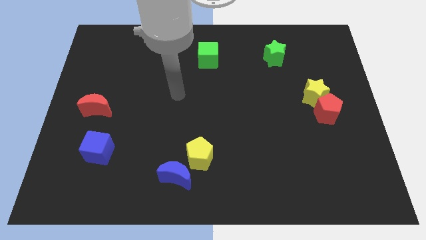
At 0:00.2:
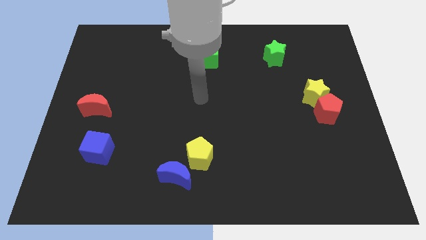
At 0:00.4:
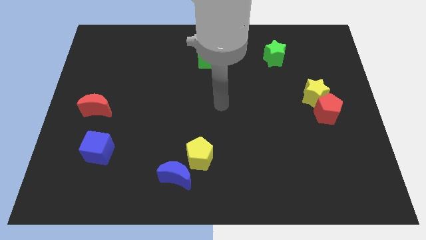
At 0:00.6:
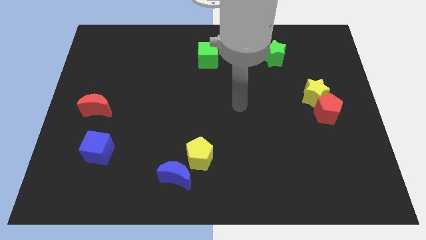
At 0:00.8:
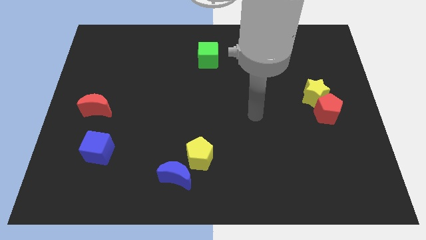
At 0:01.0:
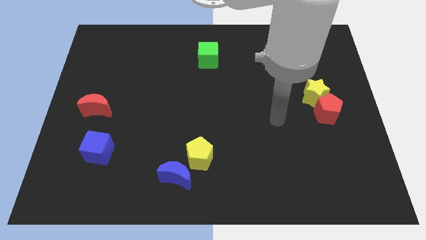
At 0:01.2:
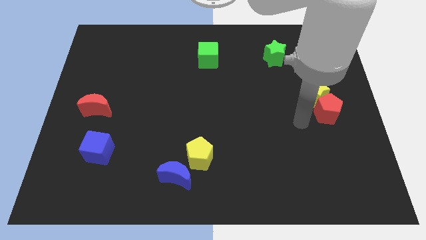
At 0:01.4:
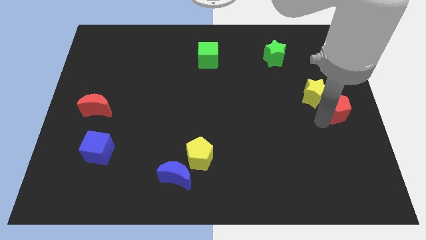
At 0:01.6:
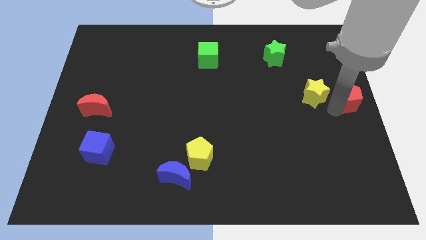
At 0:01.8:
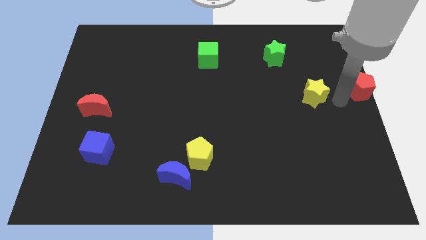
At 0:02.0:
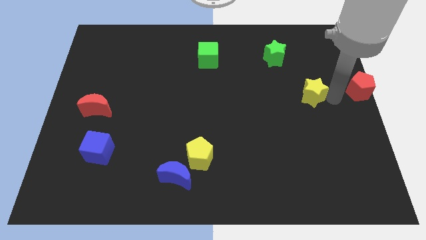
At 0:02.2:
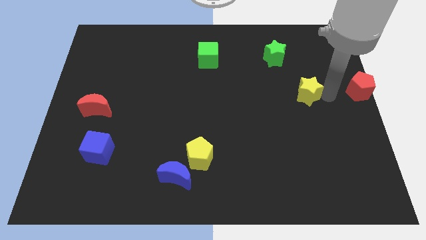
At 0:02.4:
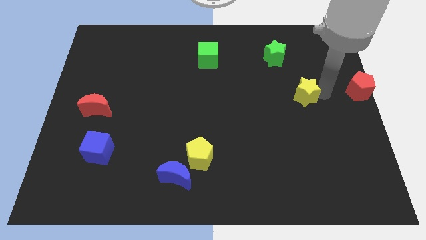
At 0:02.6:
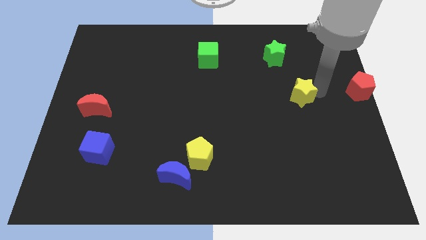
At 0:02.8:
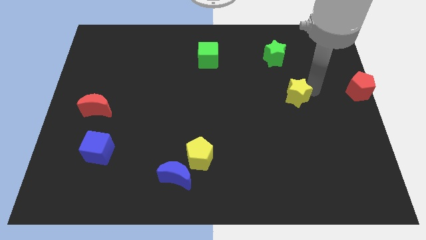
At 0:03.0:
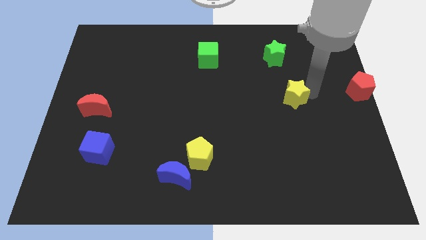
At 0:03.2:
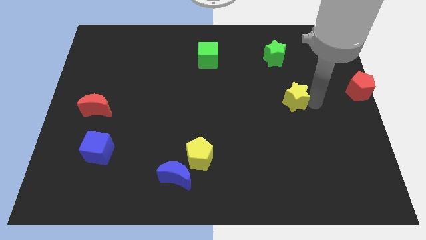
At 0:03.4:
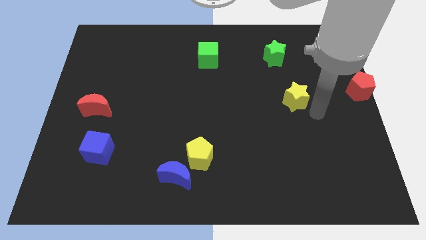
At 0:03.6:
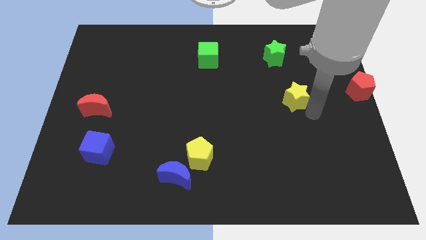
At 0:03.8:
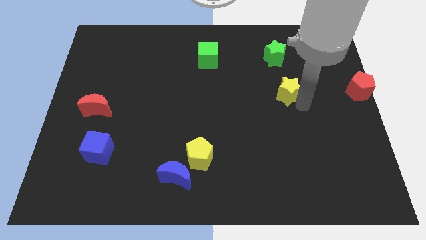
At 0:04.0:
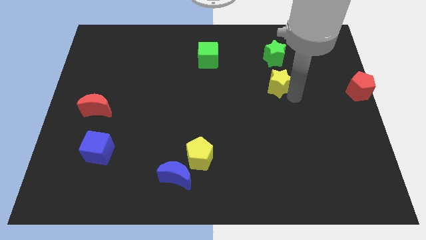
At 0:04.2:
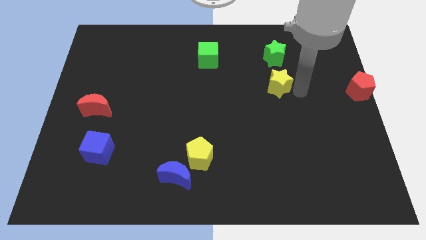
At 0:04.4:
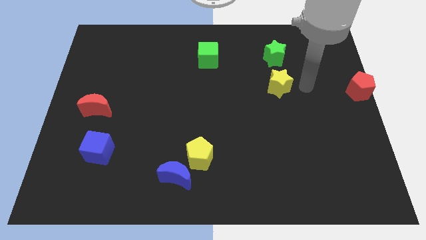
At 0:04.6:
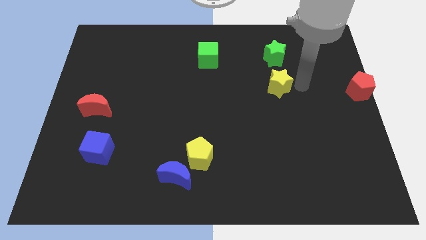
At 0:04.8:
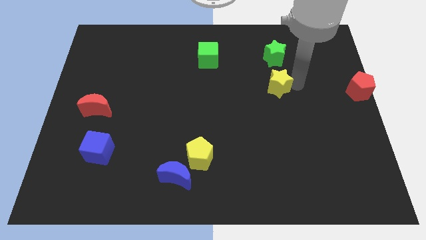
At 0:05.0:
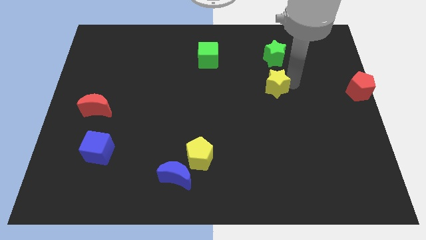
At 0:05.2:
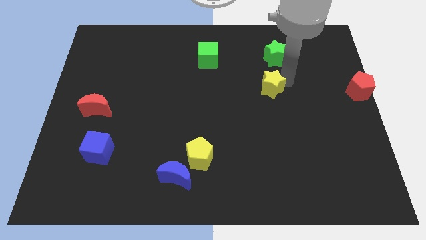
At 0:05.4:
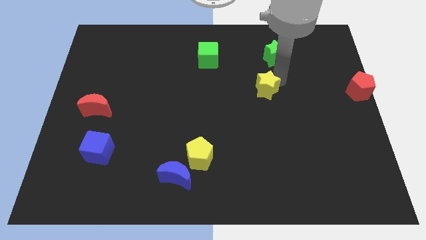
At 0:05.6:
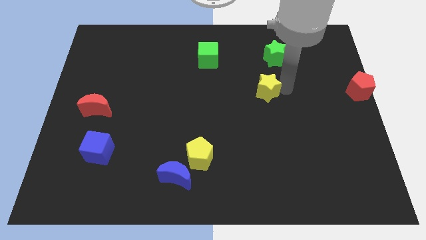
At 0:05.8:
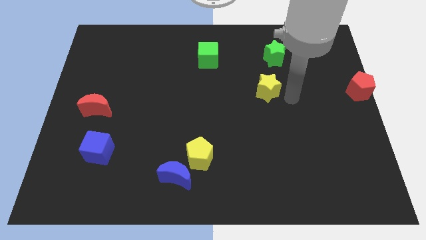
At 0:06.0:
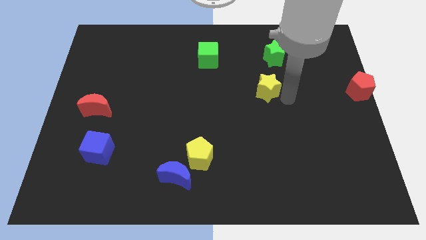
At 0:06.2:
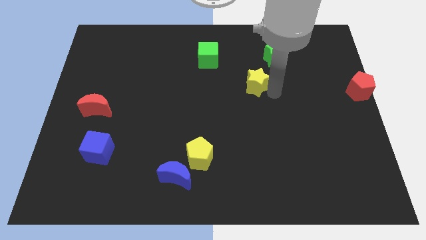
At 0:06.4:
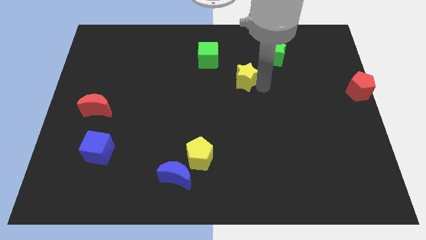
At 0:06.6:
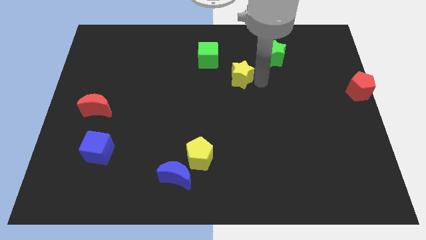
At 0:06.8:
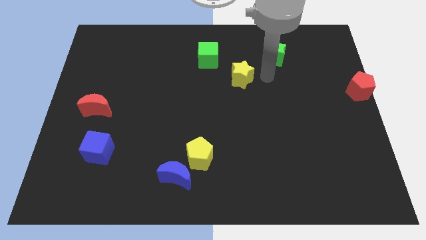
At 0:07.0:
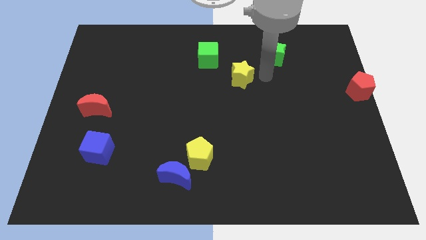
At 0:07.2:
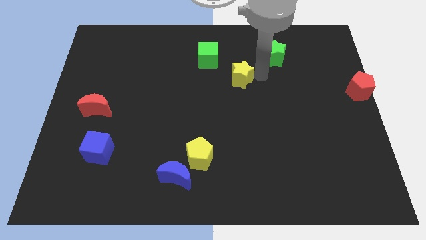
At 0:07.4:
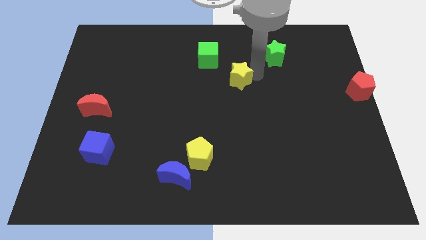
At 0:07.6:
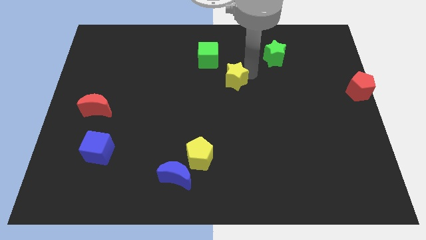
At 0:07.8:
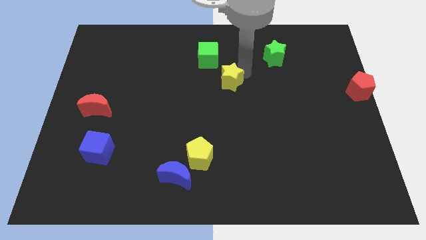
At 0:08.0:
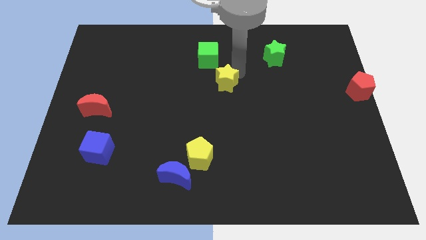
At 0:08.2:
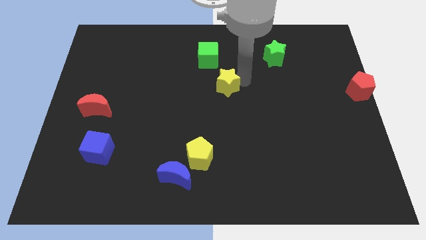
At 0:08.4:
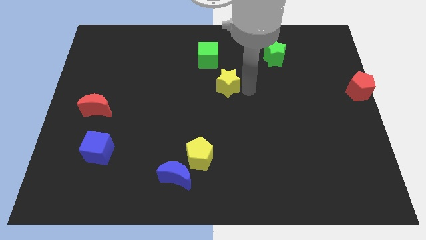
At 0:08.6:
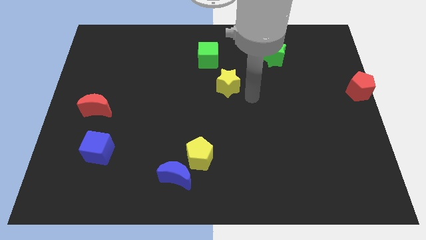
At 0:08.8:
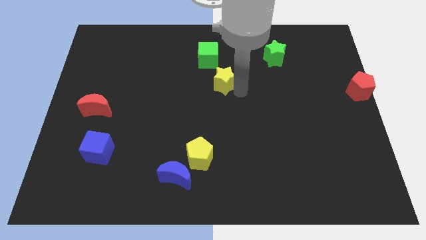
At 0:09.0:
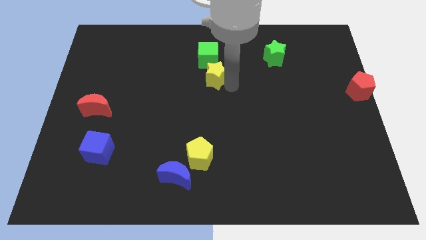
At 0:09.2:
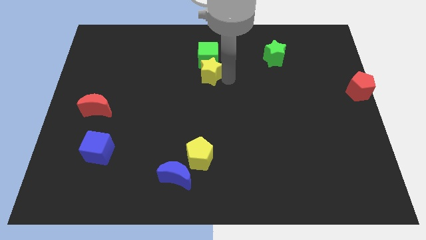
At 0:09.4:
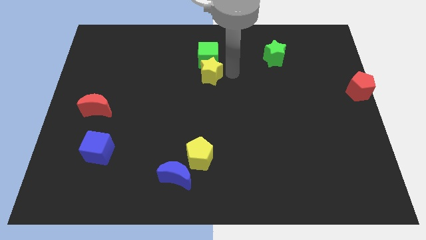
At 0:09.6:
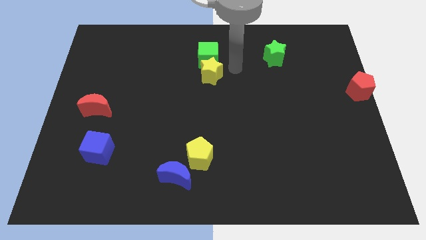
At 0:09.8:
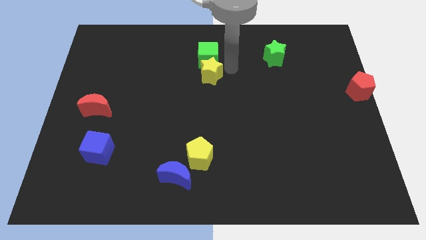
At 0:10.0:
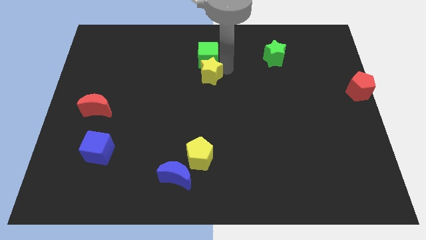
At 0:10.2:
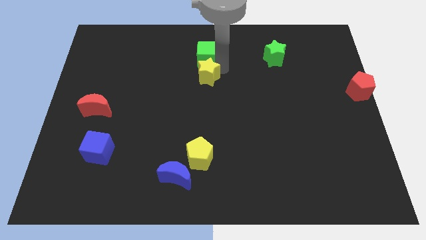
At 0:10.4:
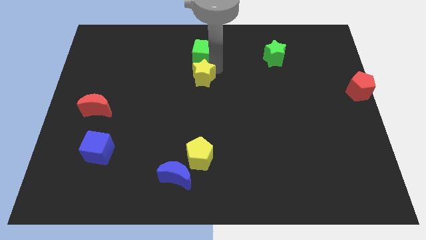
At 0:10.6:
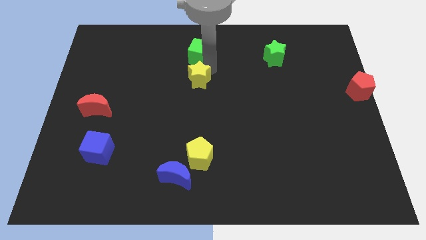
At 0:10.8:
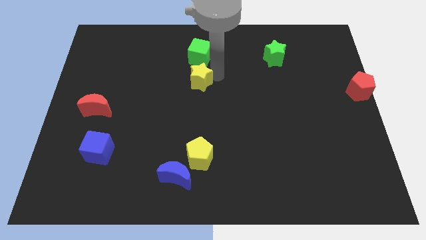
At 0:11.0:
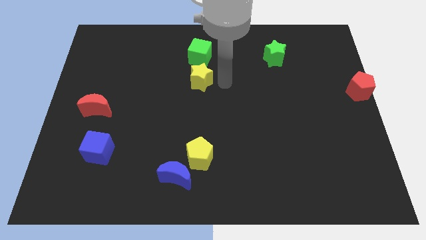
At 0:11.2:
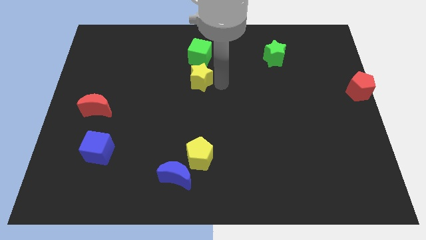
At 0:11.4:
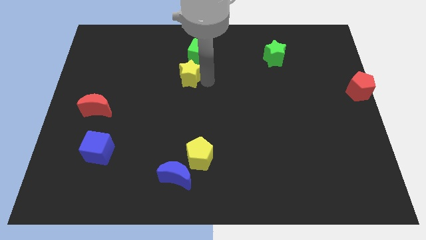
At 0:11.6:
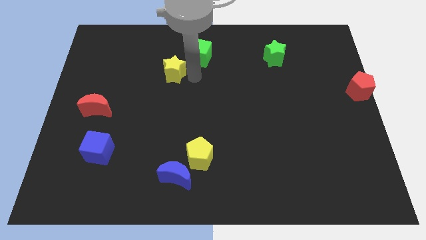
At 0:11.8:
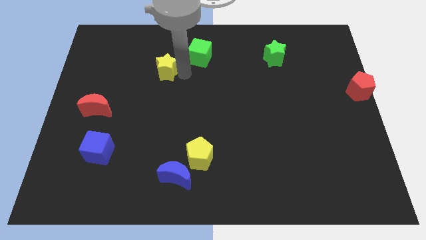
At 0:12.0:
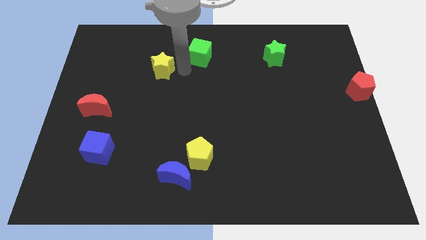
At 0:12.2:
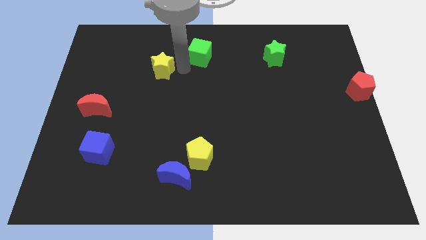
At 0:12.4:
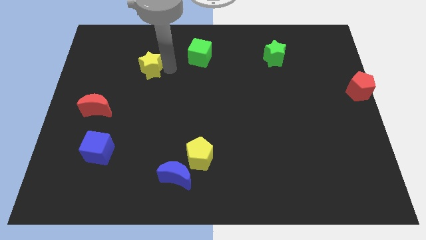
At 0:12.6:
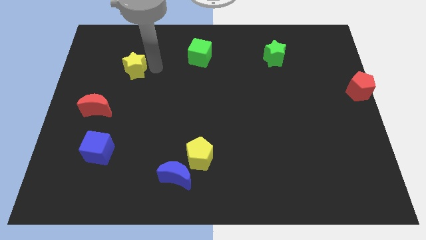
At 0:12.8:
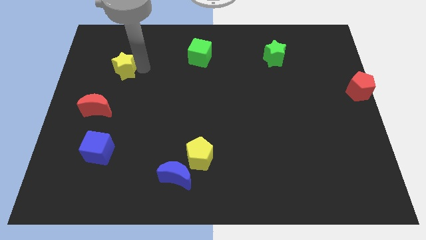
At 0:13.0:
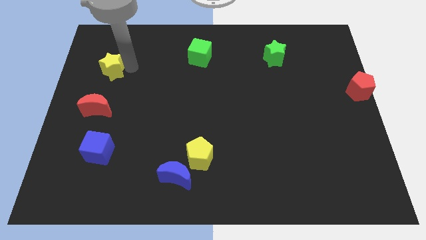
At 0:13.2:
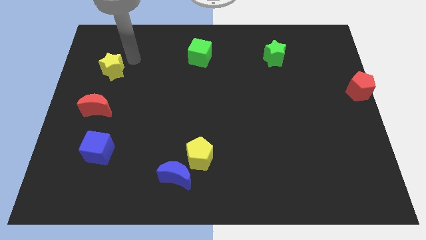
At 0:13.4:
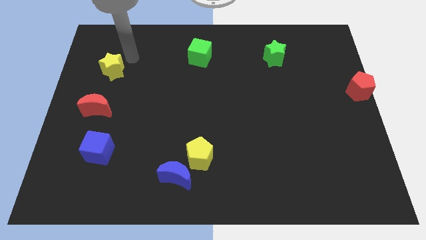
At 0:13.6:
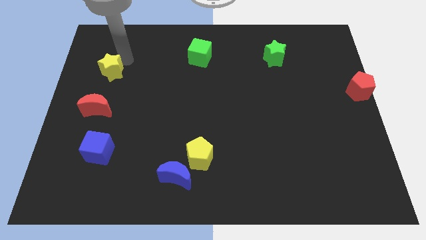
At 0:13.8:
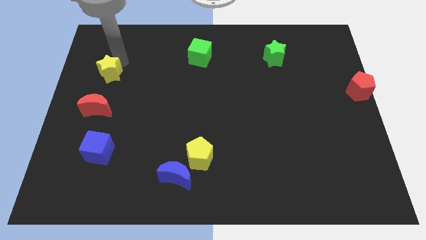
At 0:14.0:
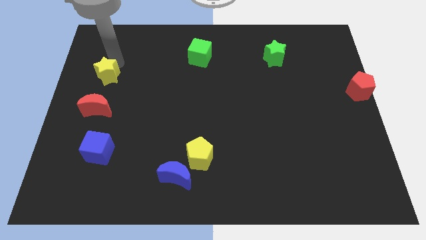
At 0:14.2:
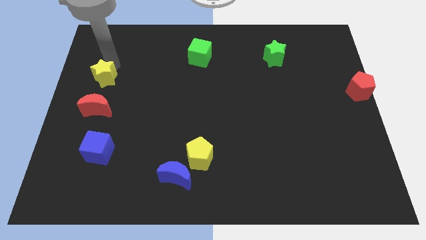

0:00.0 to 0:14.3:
slide the yellow star to the center left
